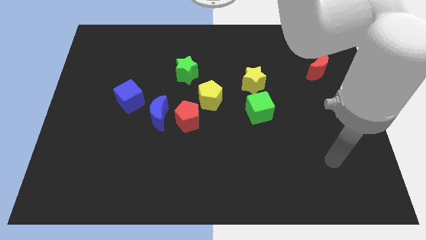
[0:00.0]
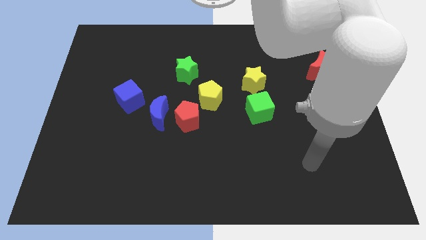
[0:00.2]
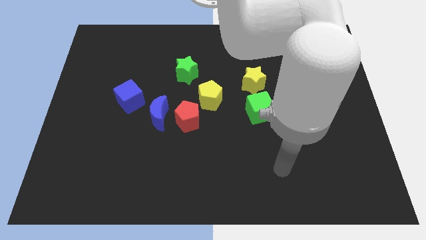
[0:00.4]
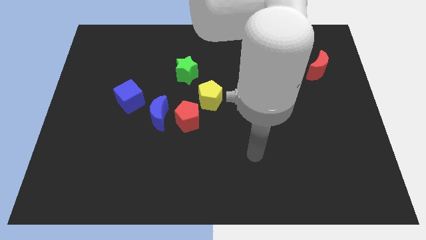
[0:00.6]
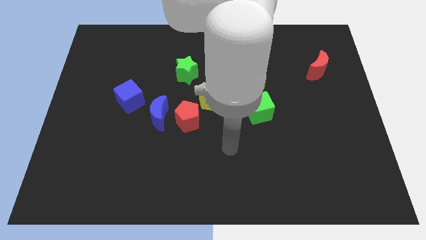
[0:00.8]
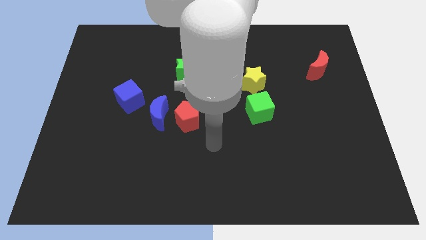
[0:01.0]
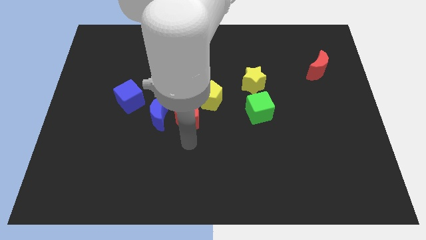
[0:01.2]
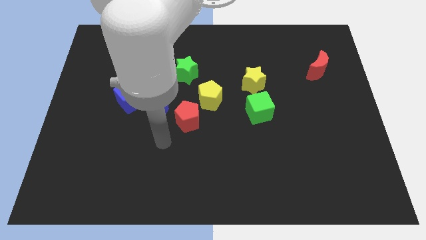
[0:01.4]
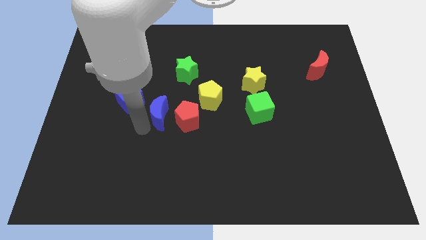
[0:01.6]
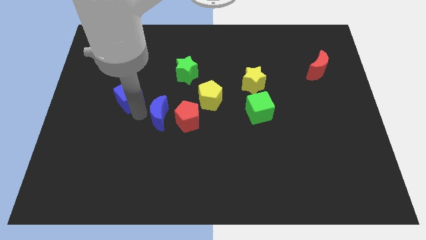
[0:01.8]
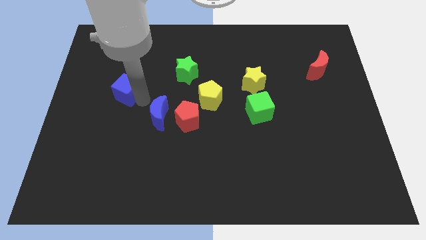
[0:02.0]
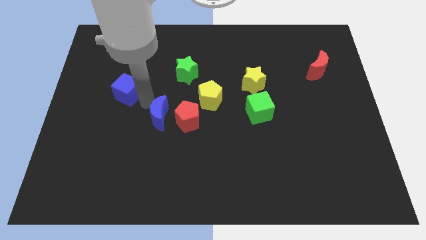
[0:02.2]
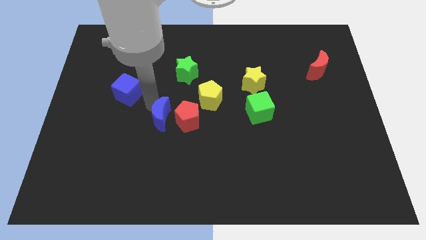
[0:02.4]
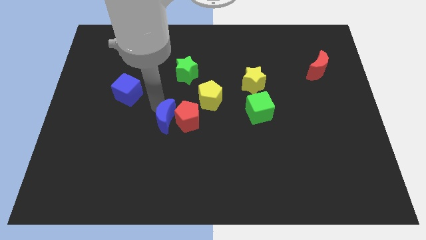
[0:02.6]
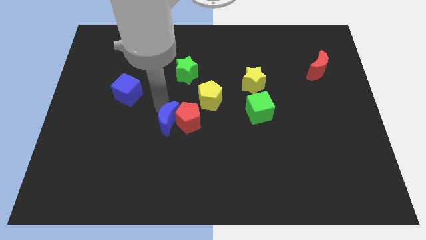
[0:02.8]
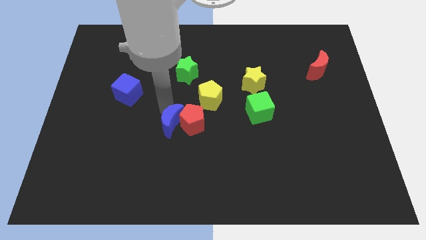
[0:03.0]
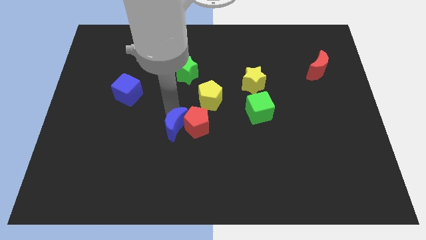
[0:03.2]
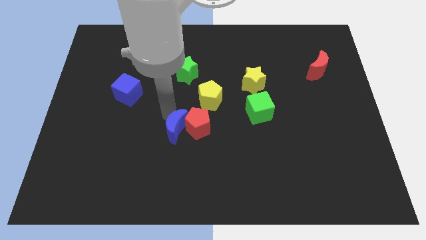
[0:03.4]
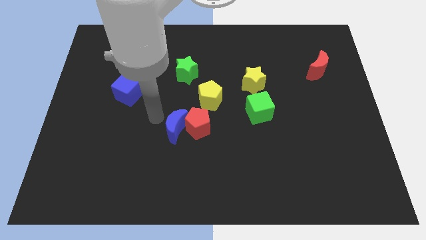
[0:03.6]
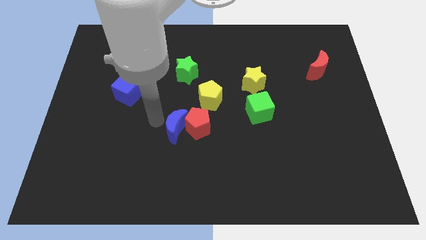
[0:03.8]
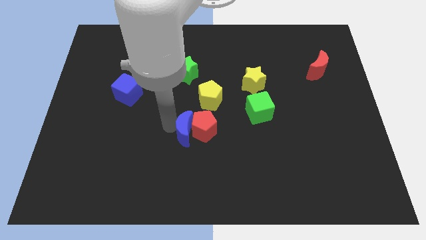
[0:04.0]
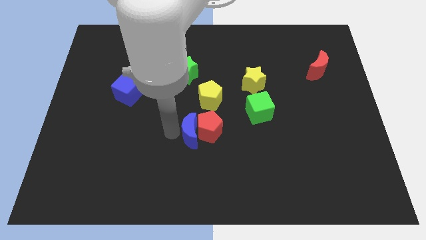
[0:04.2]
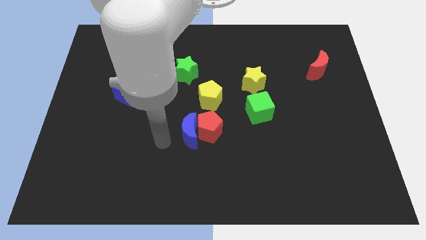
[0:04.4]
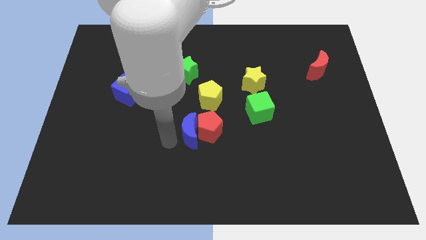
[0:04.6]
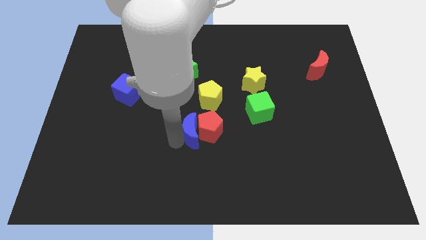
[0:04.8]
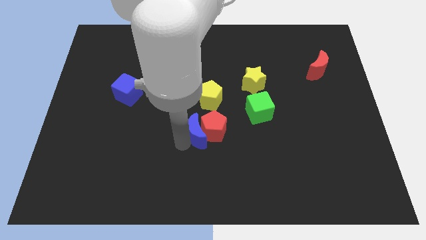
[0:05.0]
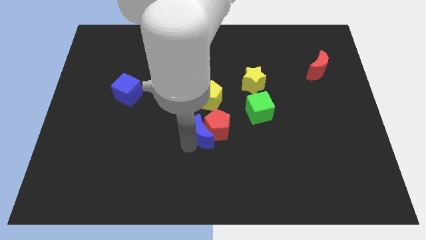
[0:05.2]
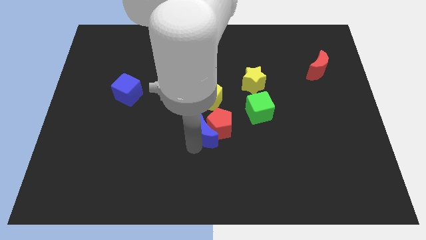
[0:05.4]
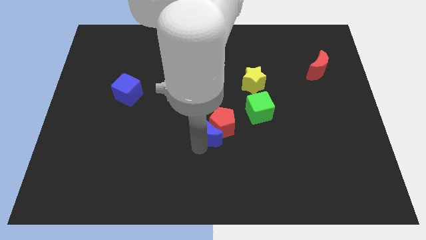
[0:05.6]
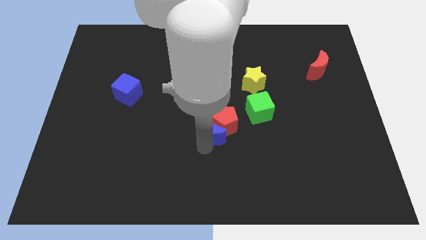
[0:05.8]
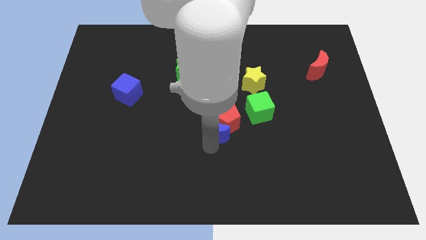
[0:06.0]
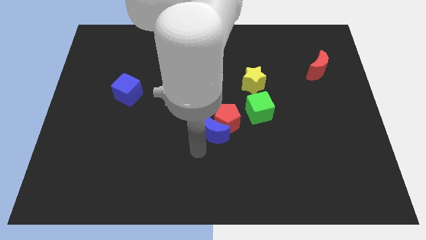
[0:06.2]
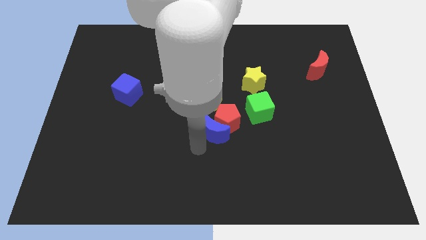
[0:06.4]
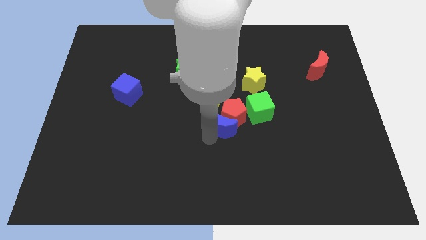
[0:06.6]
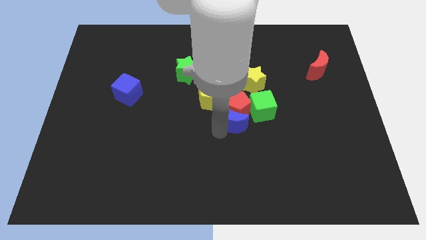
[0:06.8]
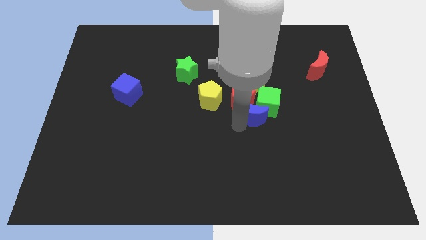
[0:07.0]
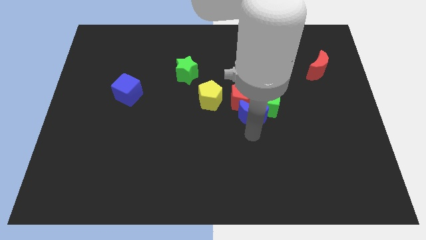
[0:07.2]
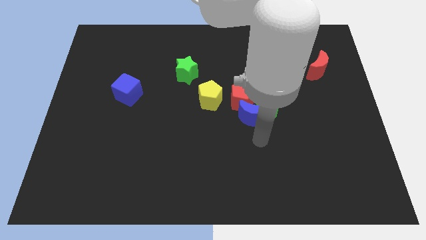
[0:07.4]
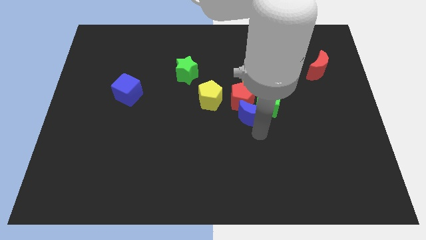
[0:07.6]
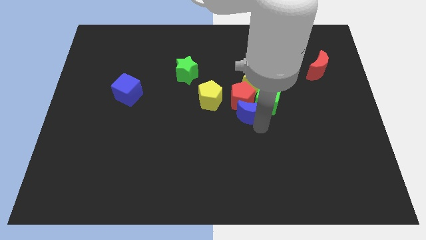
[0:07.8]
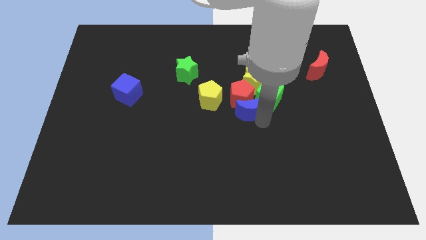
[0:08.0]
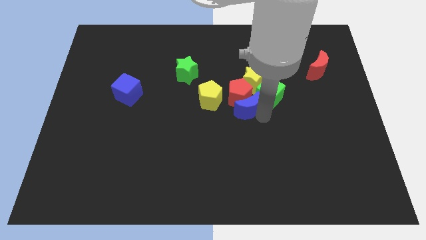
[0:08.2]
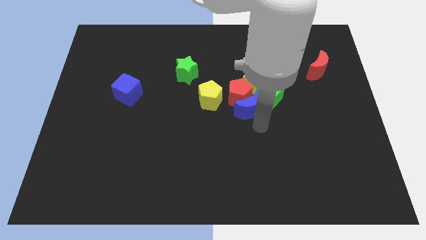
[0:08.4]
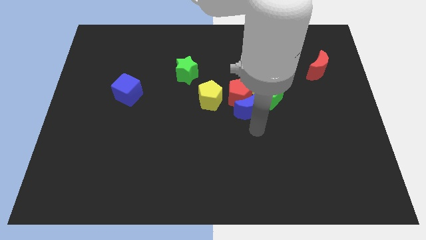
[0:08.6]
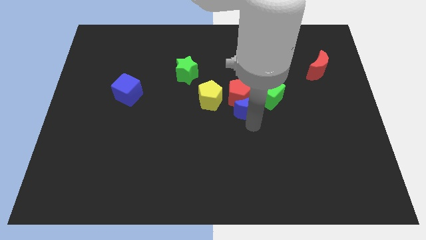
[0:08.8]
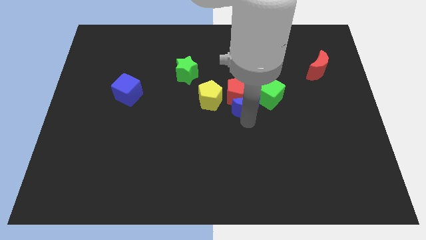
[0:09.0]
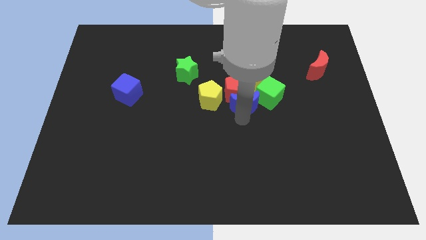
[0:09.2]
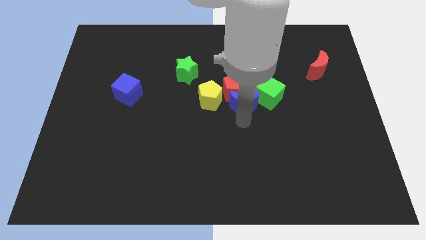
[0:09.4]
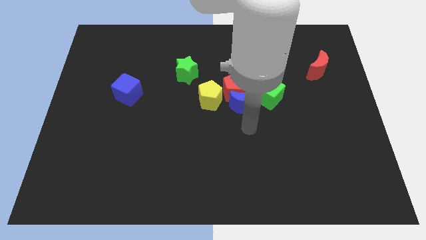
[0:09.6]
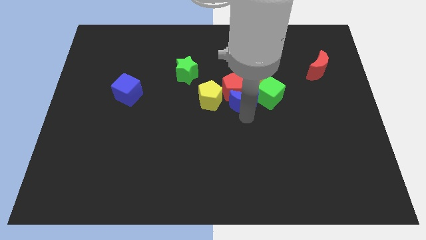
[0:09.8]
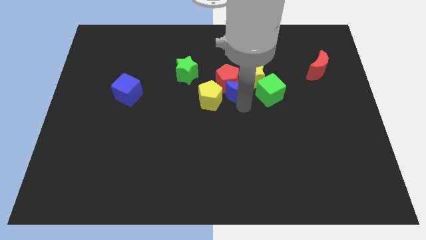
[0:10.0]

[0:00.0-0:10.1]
push the blue moon close to the yellow star

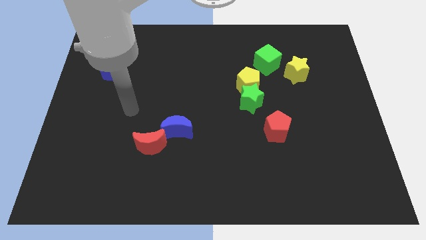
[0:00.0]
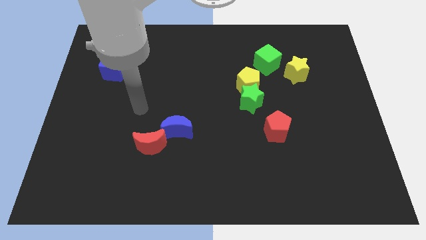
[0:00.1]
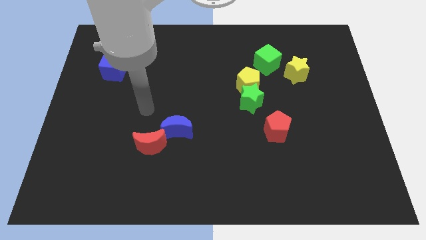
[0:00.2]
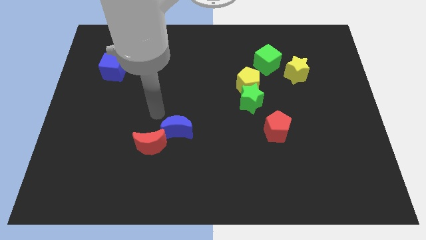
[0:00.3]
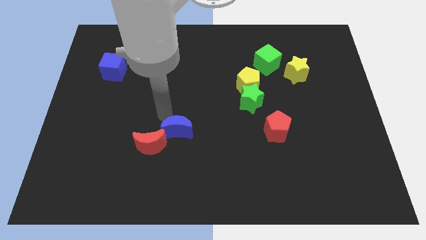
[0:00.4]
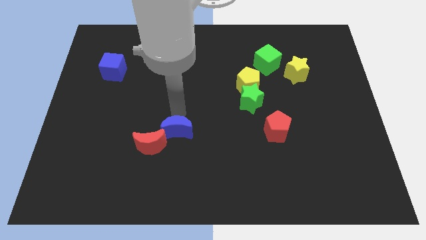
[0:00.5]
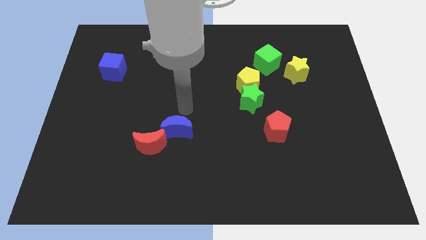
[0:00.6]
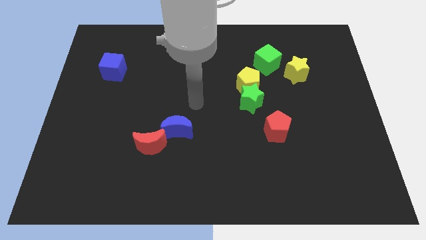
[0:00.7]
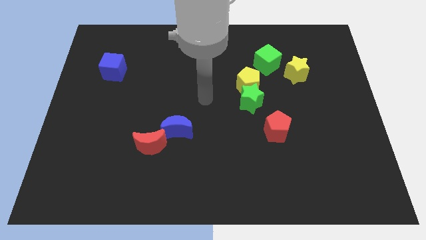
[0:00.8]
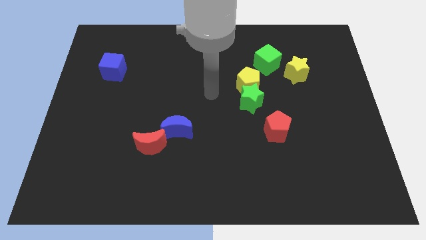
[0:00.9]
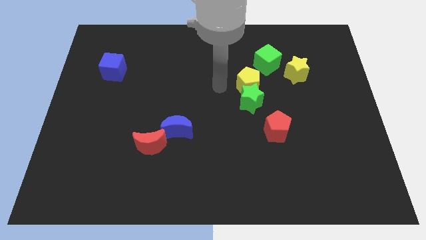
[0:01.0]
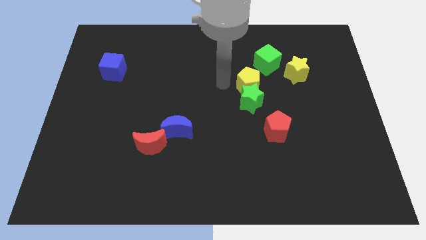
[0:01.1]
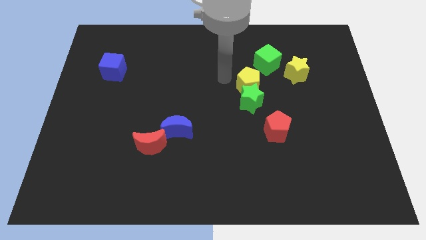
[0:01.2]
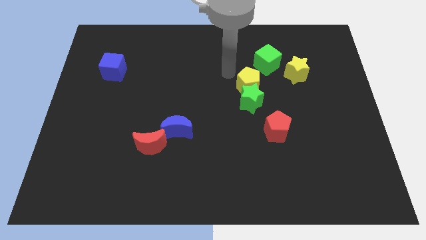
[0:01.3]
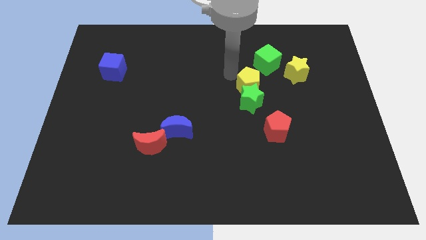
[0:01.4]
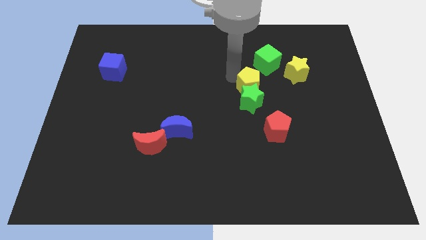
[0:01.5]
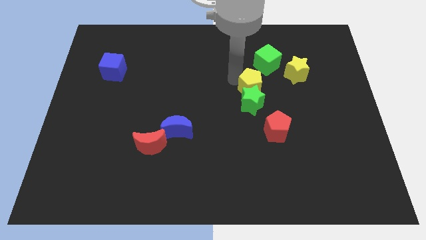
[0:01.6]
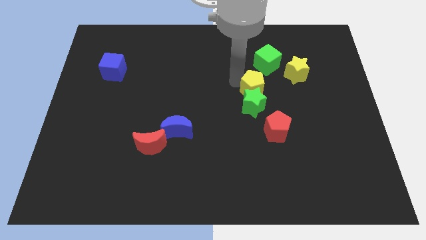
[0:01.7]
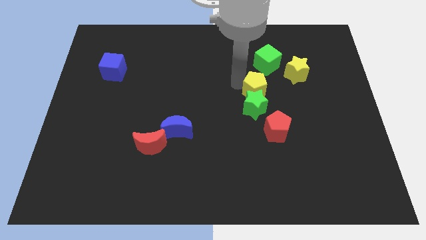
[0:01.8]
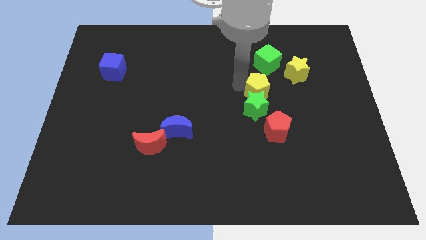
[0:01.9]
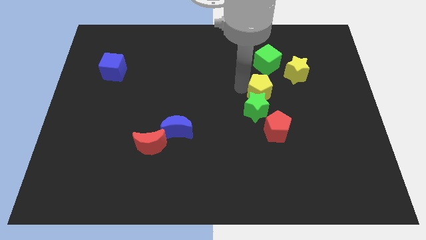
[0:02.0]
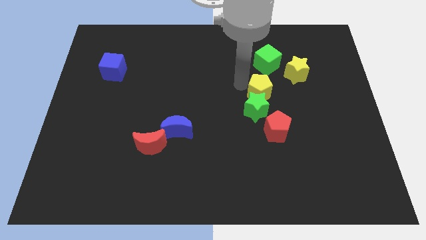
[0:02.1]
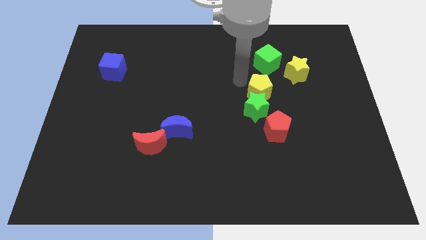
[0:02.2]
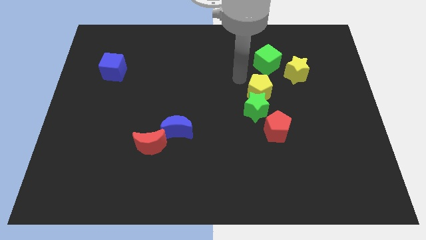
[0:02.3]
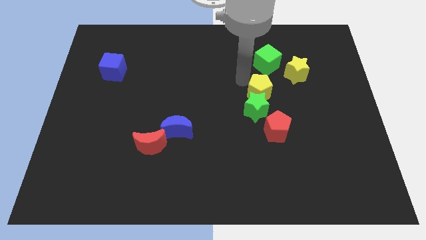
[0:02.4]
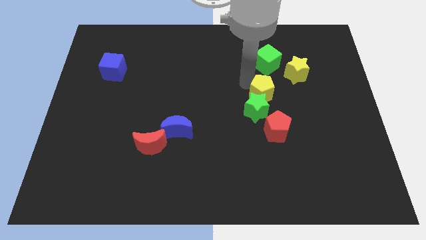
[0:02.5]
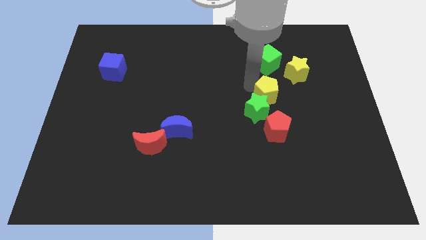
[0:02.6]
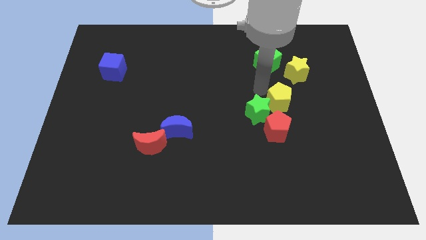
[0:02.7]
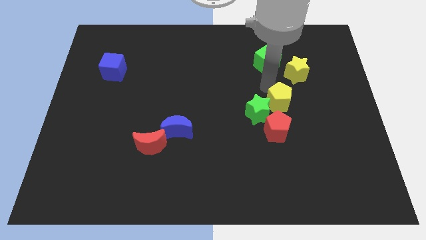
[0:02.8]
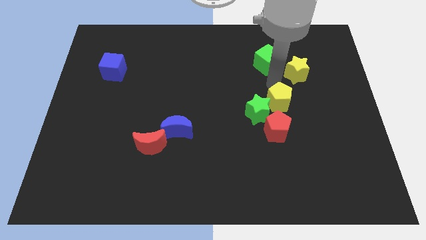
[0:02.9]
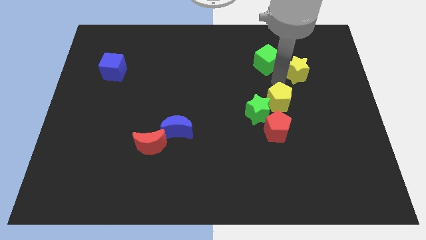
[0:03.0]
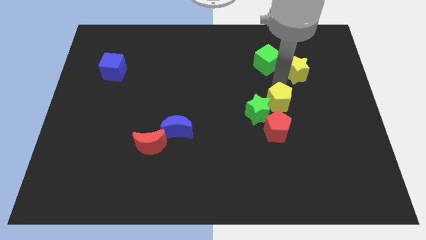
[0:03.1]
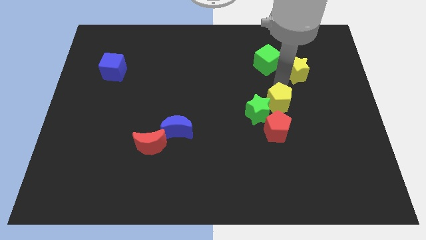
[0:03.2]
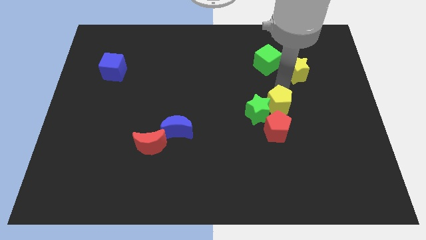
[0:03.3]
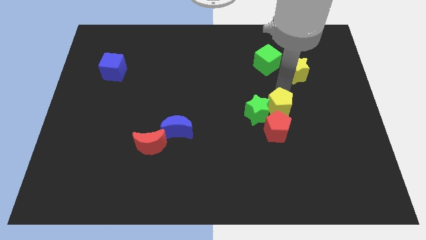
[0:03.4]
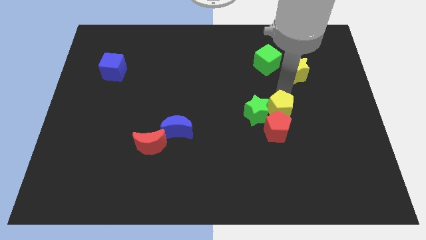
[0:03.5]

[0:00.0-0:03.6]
push the yellow pentagon close to the red pentagon
